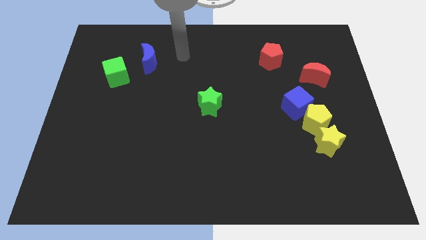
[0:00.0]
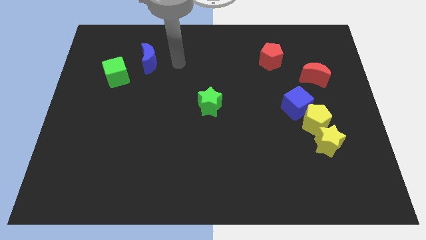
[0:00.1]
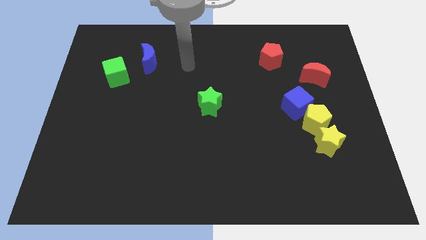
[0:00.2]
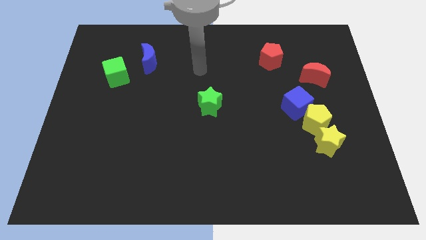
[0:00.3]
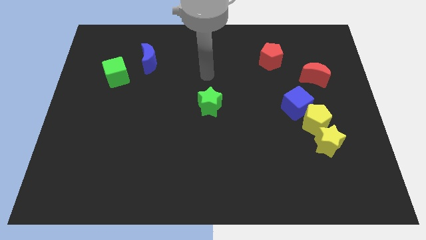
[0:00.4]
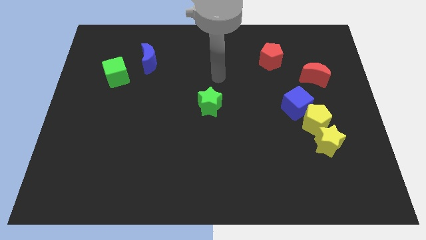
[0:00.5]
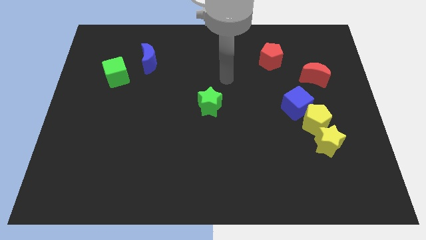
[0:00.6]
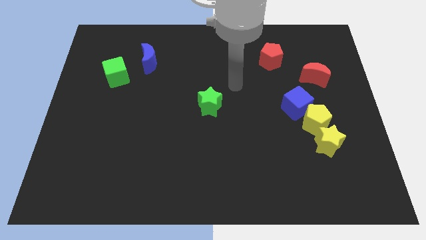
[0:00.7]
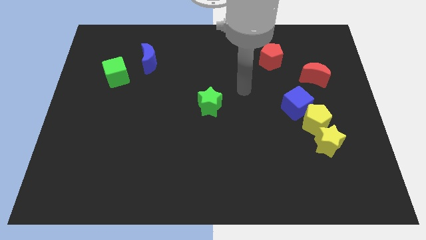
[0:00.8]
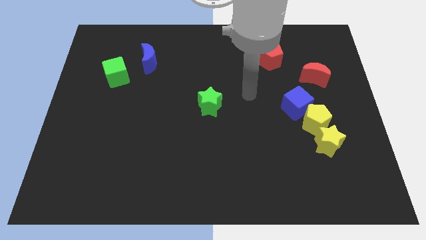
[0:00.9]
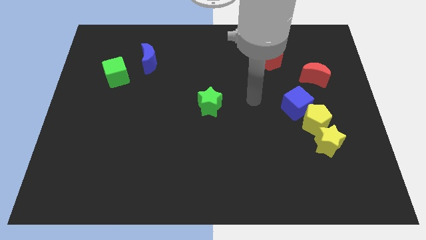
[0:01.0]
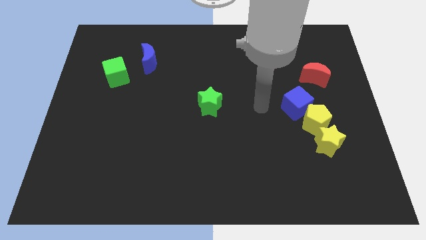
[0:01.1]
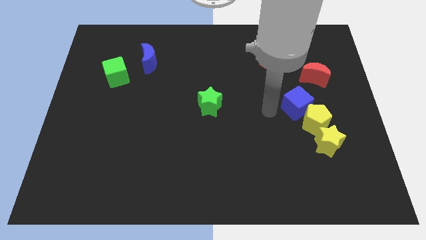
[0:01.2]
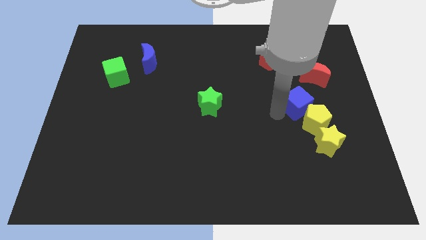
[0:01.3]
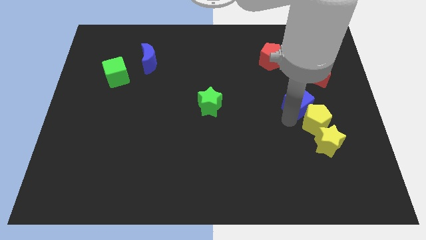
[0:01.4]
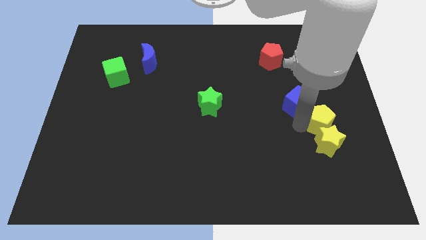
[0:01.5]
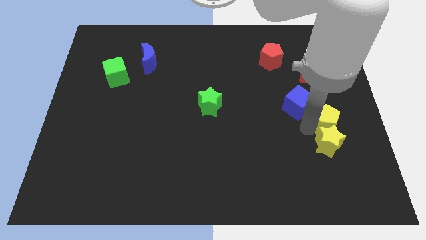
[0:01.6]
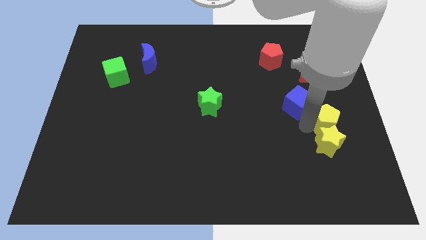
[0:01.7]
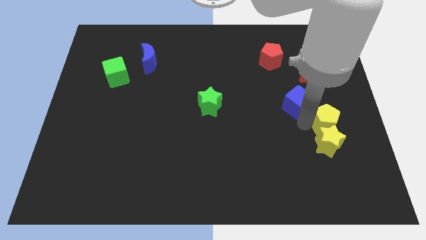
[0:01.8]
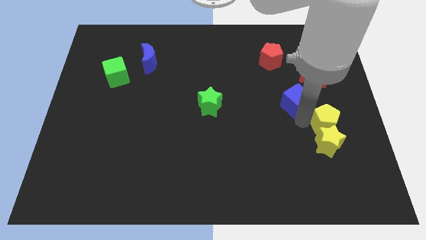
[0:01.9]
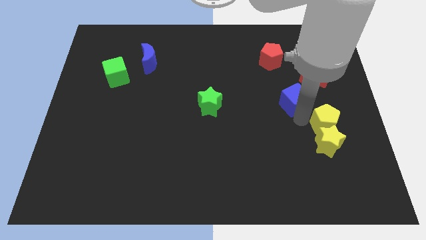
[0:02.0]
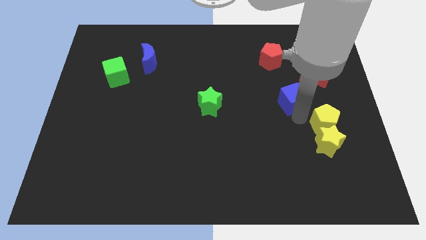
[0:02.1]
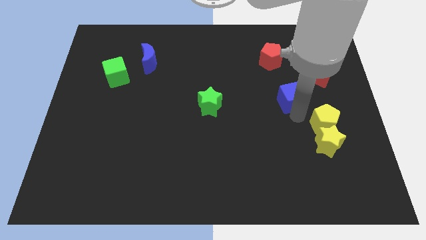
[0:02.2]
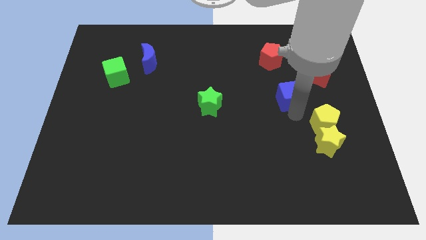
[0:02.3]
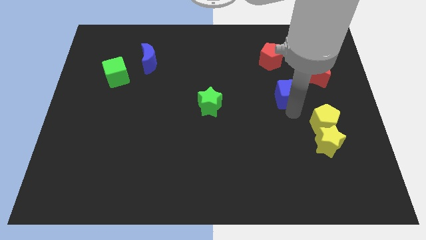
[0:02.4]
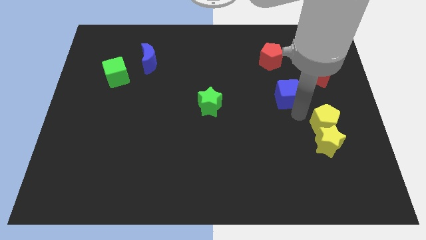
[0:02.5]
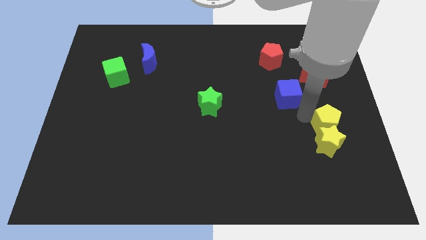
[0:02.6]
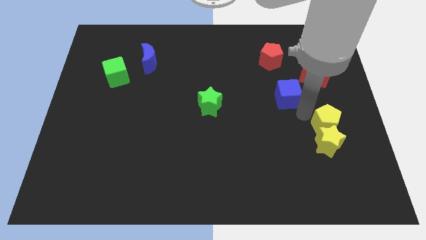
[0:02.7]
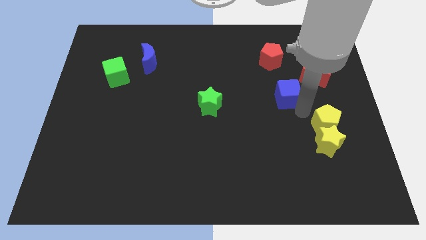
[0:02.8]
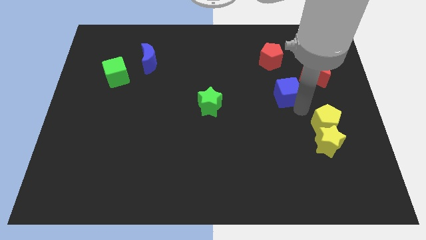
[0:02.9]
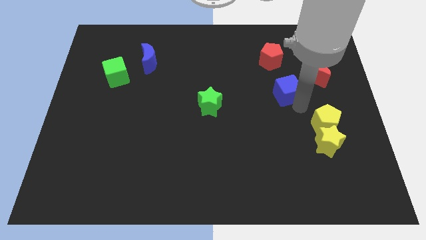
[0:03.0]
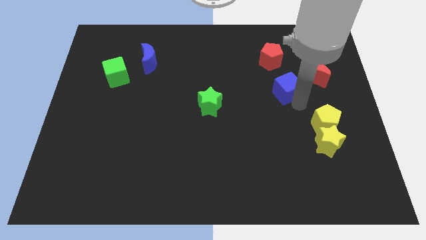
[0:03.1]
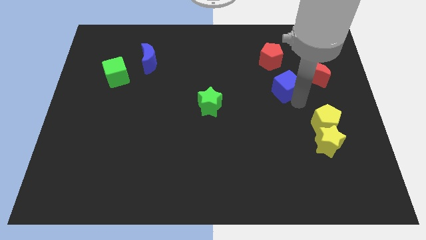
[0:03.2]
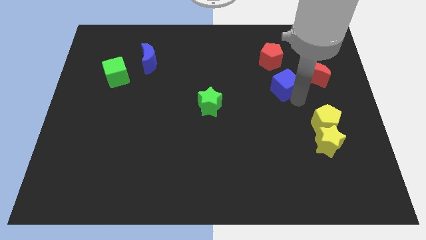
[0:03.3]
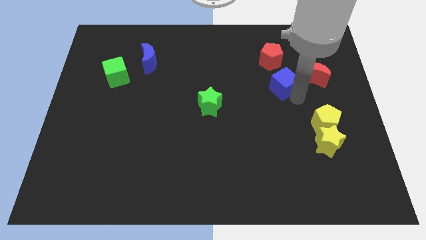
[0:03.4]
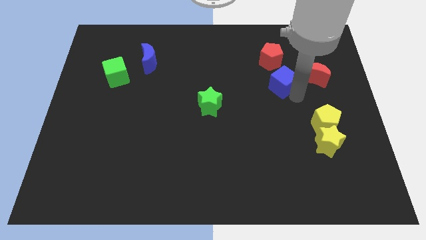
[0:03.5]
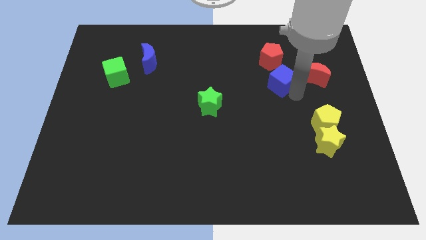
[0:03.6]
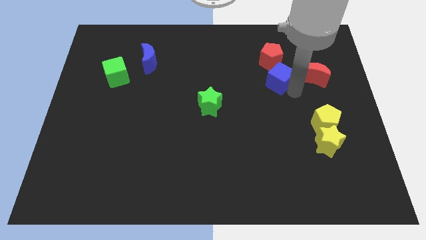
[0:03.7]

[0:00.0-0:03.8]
slide the blue cube diagonally upwards and to the left somewhat

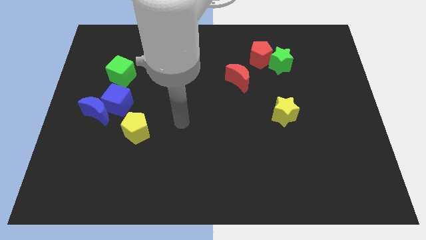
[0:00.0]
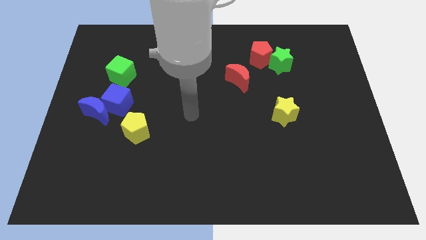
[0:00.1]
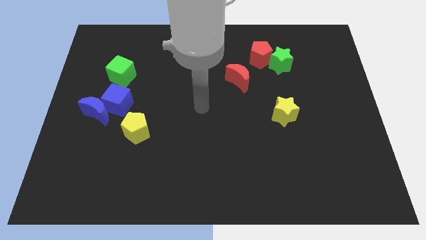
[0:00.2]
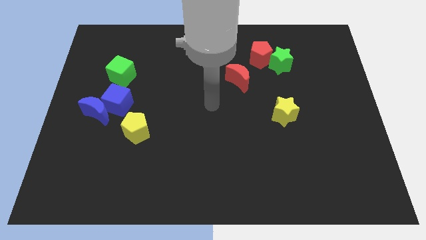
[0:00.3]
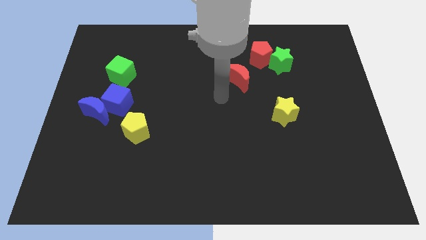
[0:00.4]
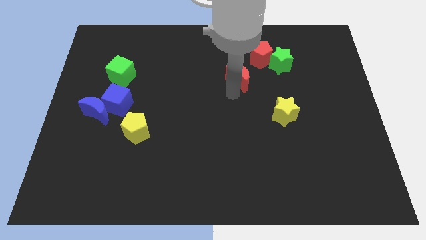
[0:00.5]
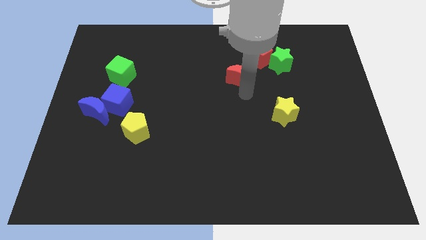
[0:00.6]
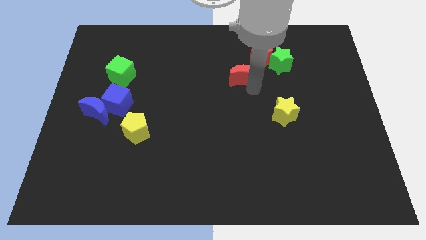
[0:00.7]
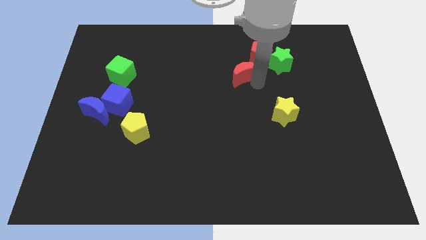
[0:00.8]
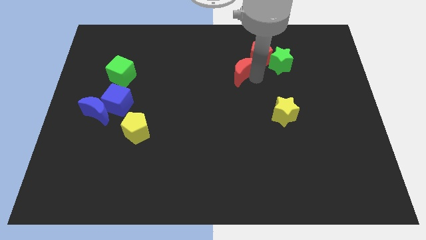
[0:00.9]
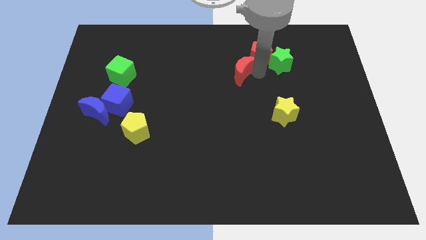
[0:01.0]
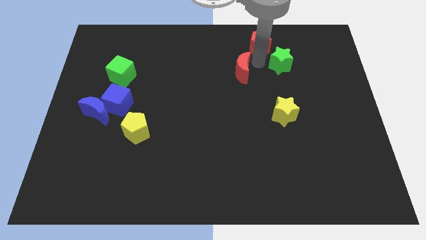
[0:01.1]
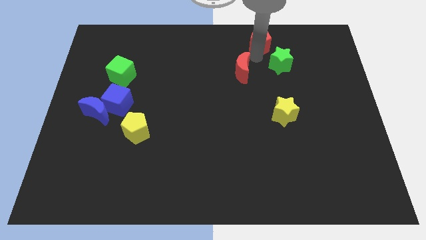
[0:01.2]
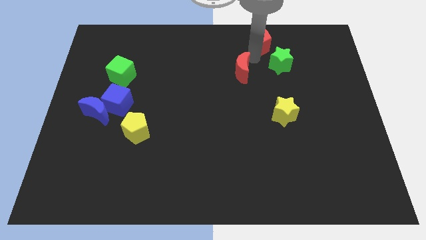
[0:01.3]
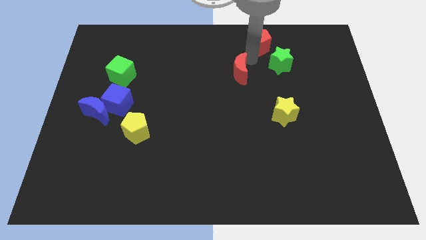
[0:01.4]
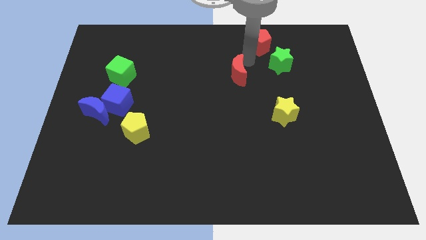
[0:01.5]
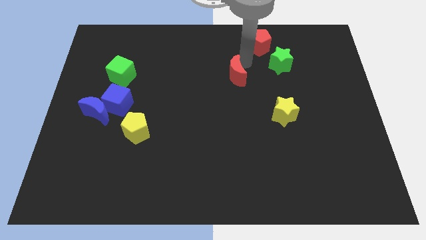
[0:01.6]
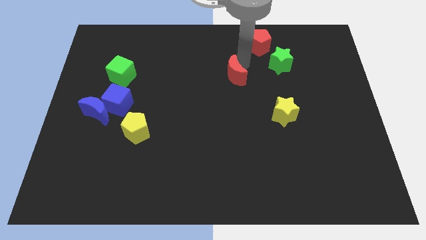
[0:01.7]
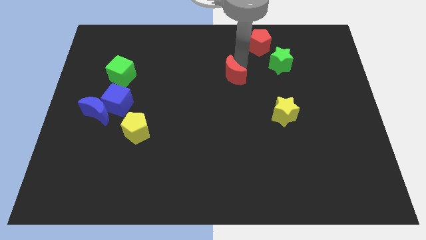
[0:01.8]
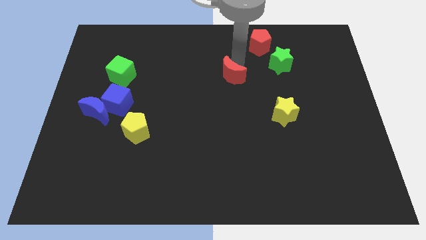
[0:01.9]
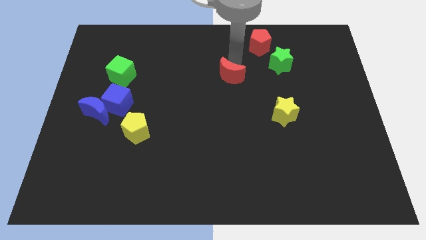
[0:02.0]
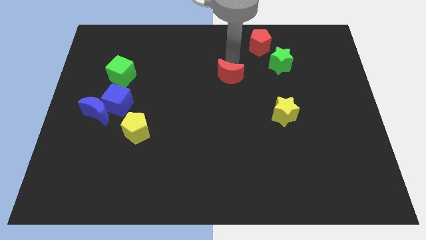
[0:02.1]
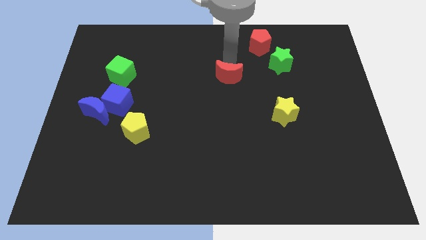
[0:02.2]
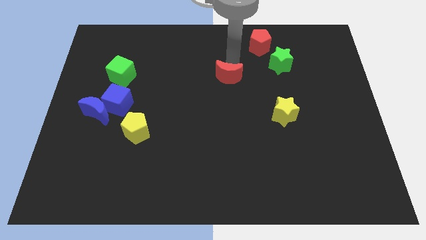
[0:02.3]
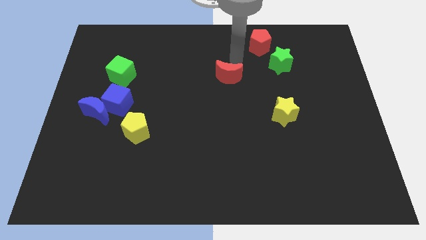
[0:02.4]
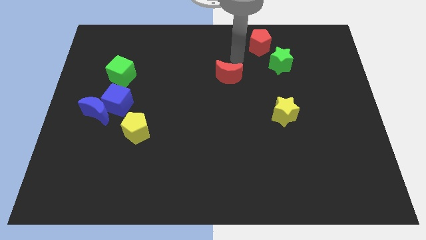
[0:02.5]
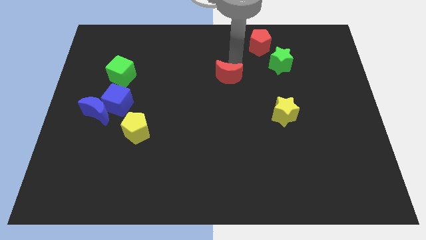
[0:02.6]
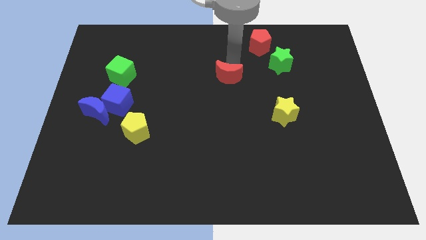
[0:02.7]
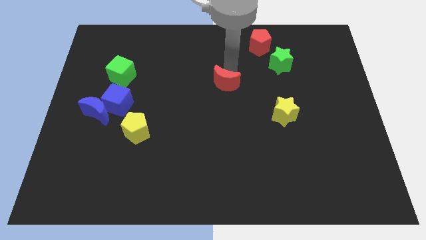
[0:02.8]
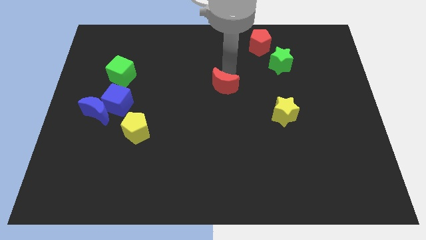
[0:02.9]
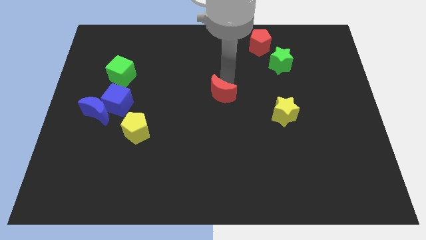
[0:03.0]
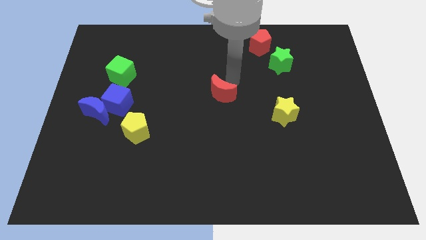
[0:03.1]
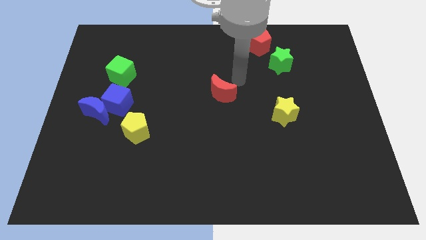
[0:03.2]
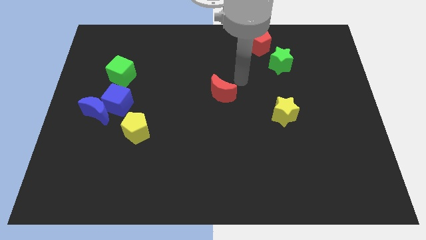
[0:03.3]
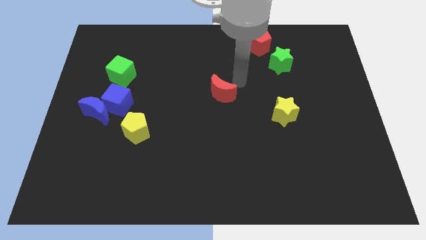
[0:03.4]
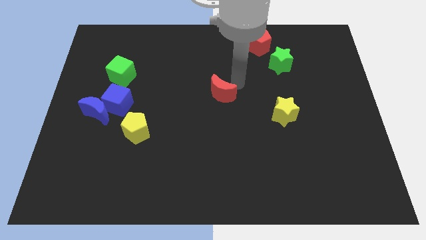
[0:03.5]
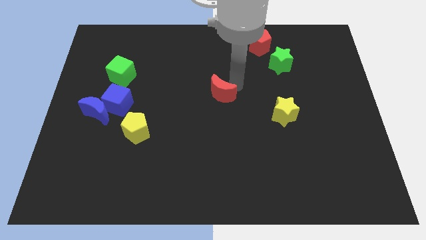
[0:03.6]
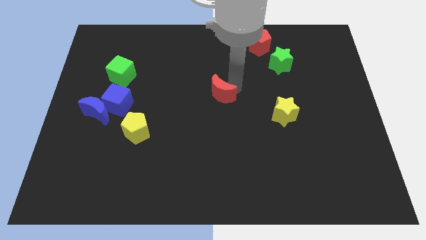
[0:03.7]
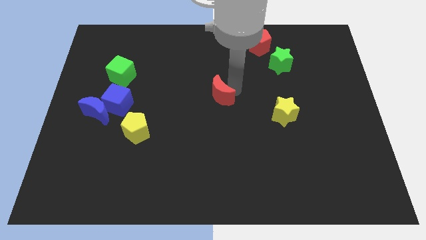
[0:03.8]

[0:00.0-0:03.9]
push the red moon a bit down and to the left diagonally
